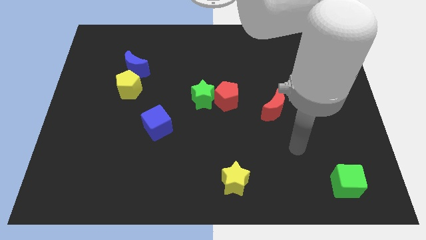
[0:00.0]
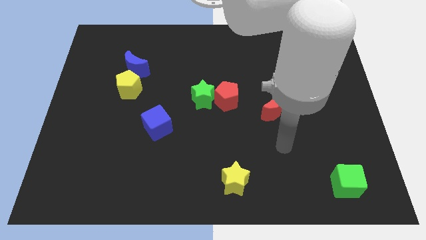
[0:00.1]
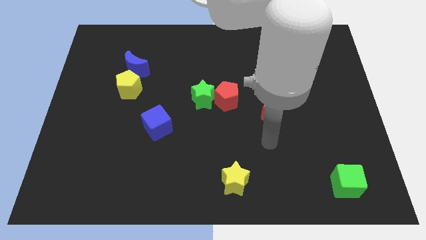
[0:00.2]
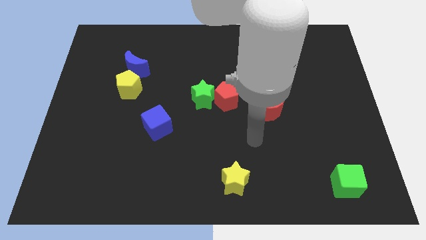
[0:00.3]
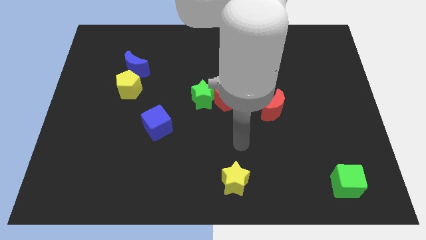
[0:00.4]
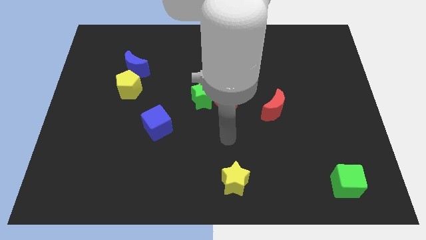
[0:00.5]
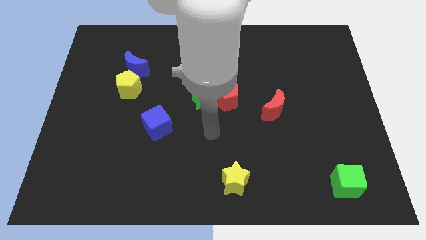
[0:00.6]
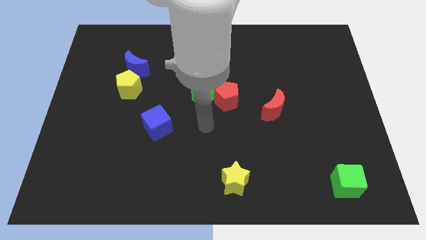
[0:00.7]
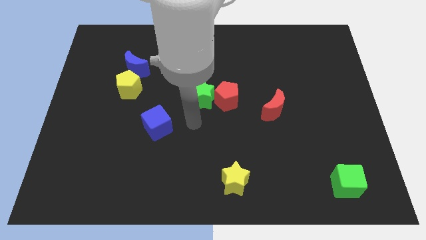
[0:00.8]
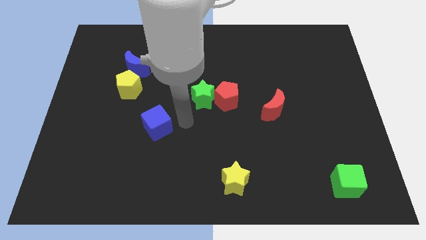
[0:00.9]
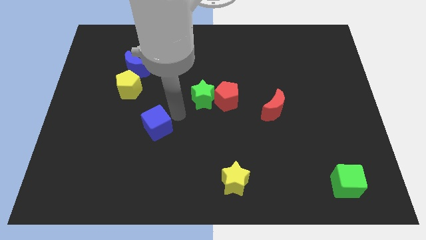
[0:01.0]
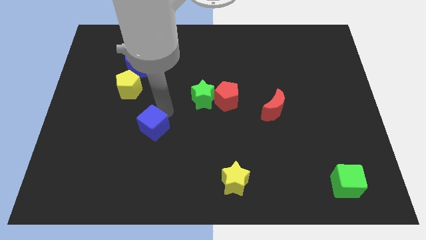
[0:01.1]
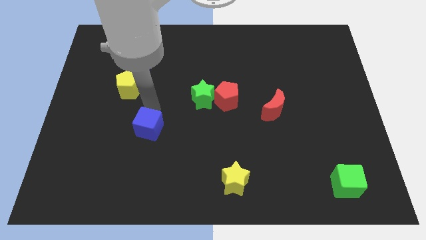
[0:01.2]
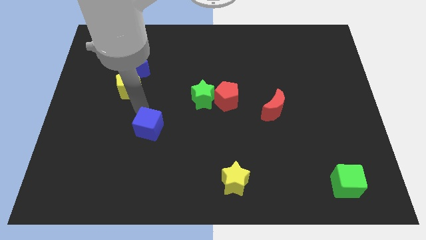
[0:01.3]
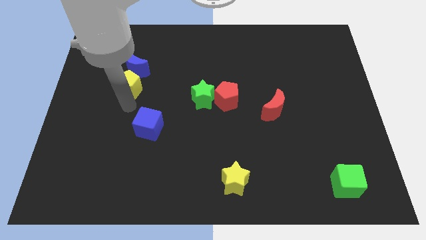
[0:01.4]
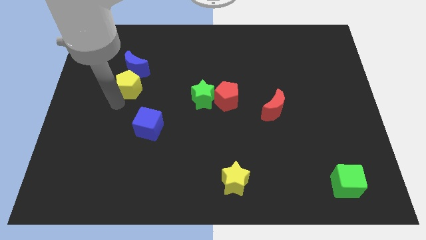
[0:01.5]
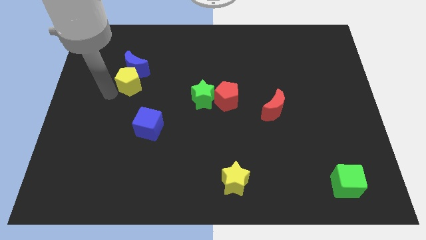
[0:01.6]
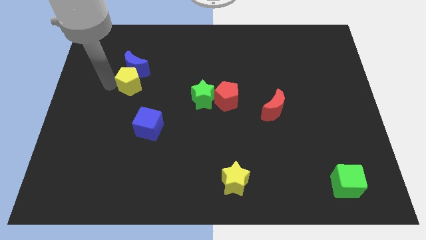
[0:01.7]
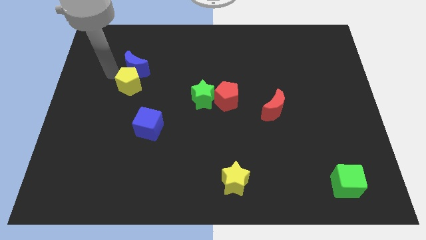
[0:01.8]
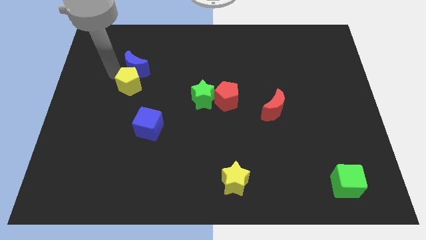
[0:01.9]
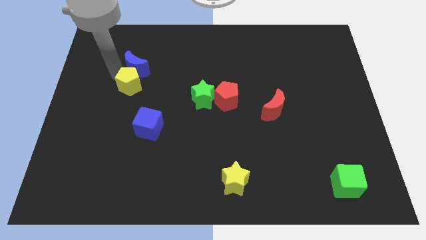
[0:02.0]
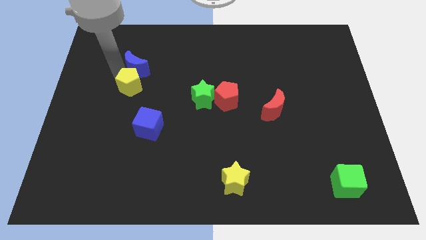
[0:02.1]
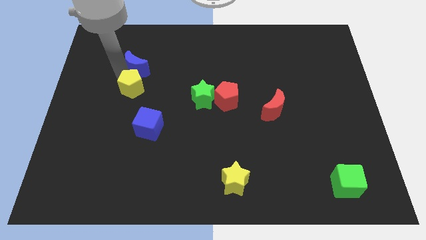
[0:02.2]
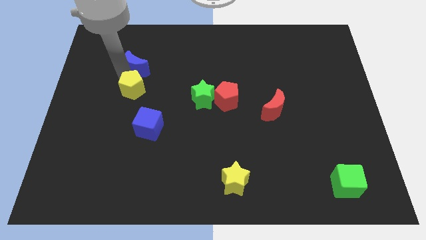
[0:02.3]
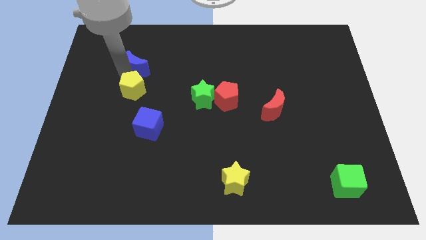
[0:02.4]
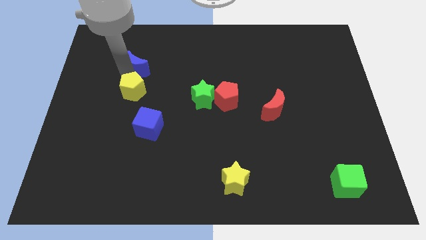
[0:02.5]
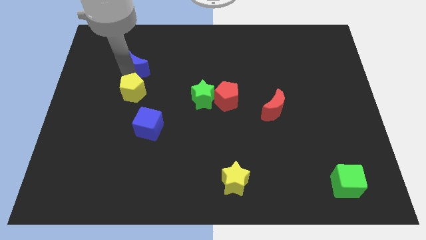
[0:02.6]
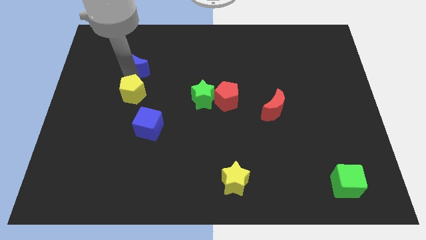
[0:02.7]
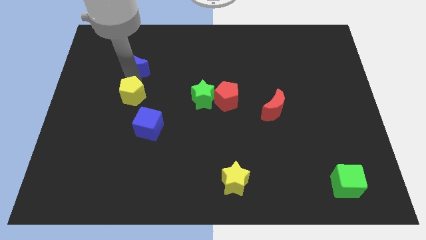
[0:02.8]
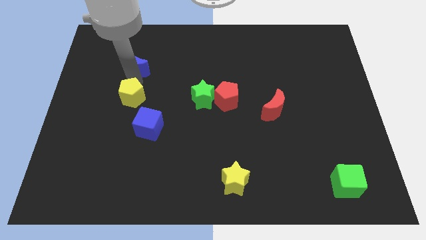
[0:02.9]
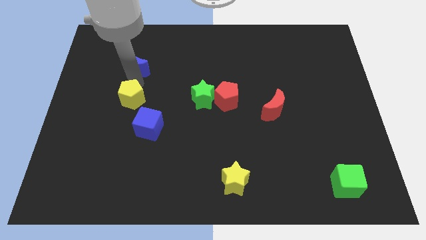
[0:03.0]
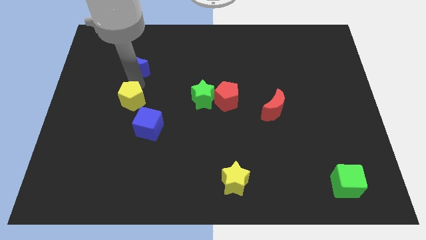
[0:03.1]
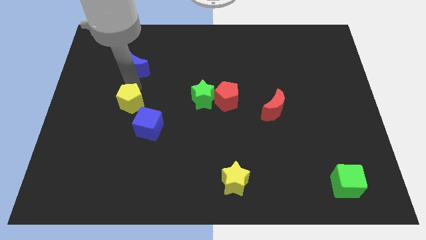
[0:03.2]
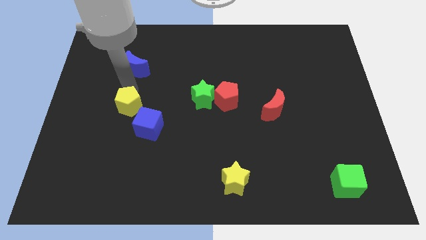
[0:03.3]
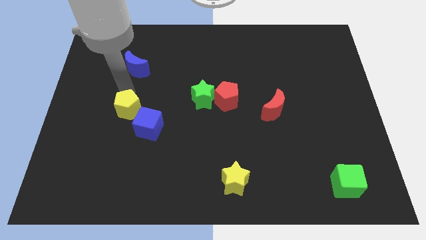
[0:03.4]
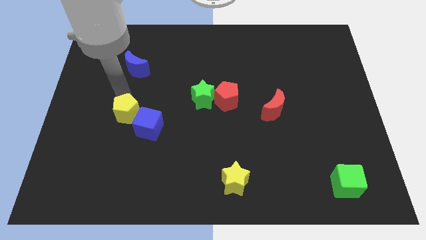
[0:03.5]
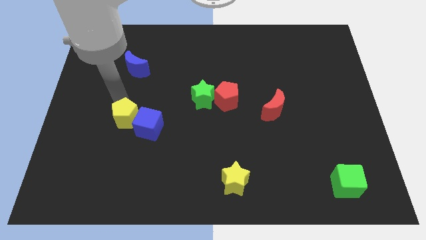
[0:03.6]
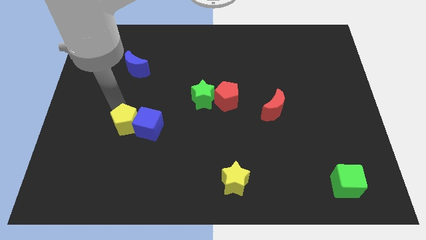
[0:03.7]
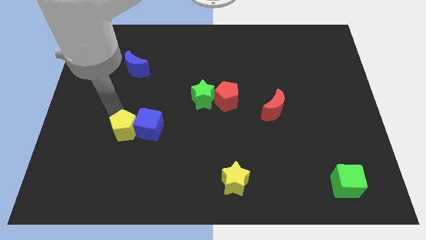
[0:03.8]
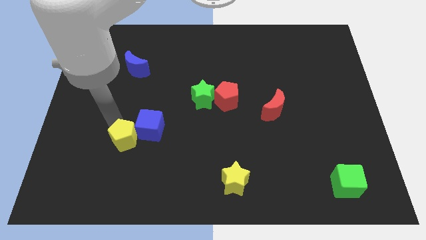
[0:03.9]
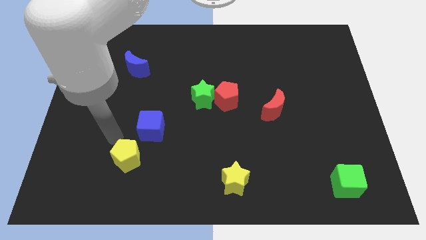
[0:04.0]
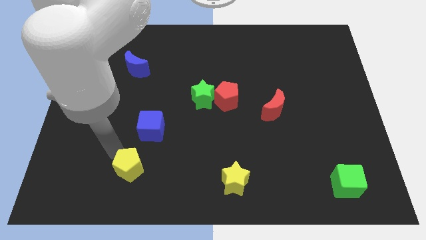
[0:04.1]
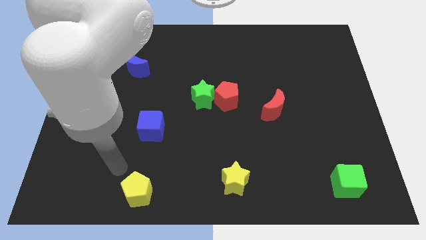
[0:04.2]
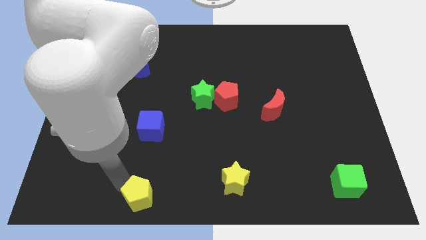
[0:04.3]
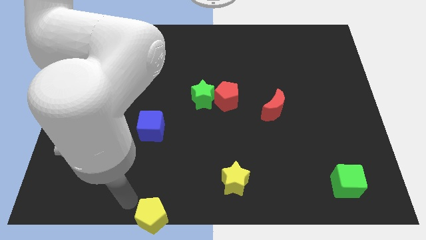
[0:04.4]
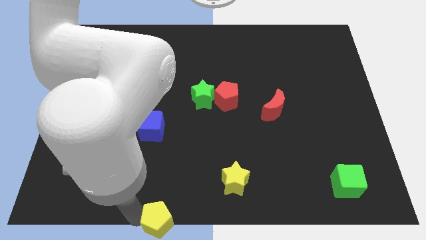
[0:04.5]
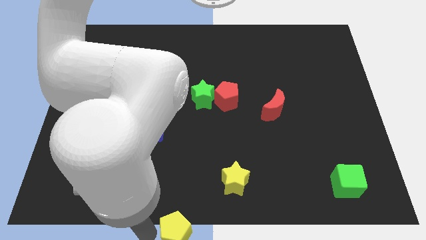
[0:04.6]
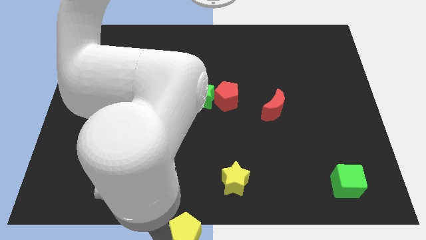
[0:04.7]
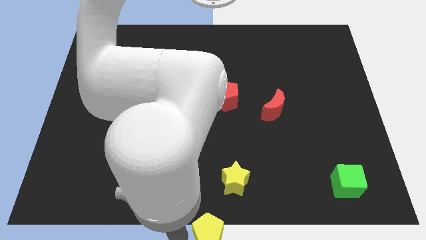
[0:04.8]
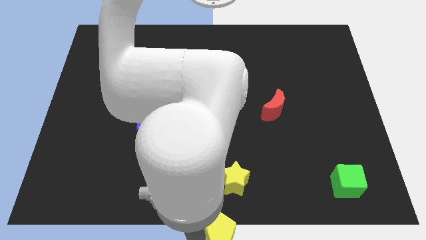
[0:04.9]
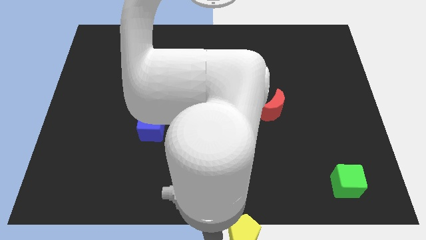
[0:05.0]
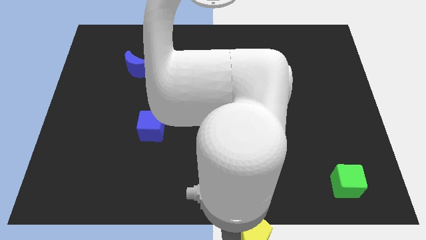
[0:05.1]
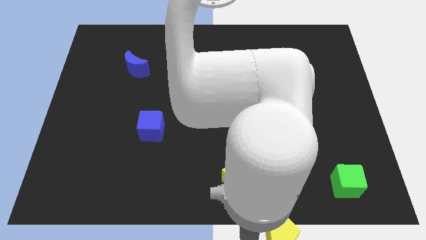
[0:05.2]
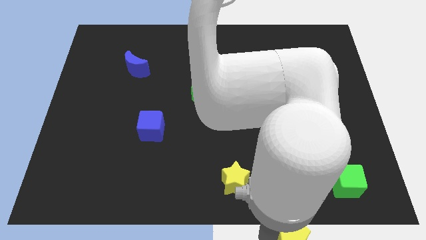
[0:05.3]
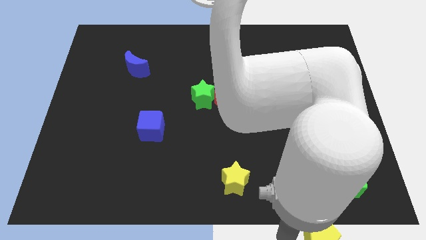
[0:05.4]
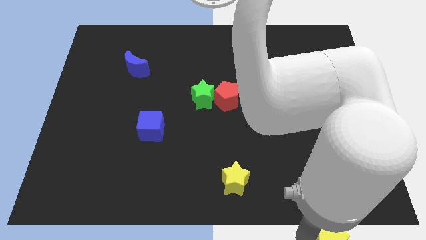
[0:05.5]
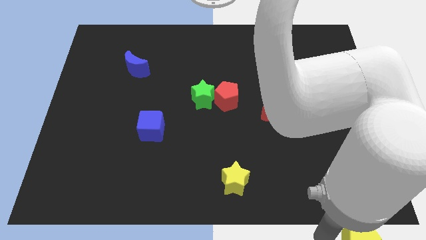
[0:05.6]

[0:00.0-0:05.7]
push the yellow pentagon to the bottom right corner
